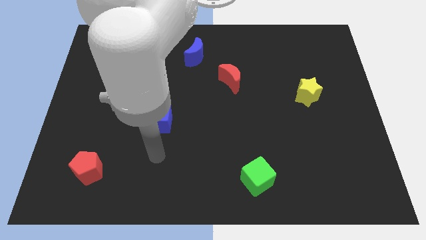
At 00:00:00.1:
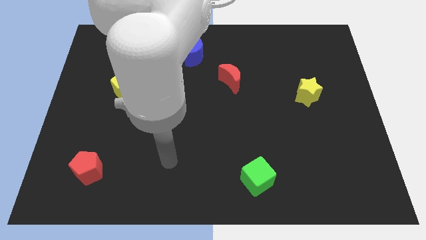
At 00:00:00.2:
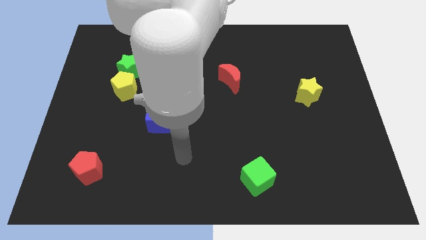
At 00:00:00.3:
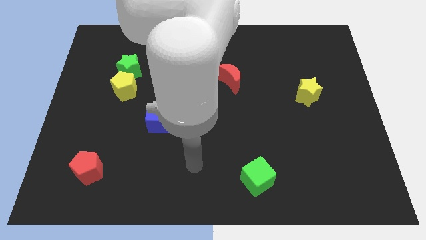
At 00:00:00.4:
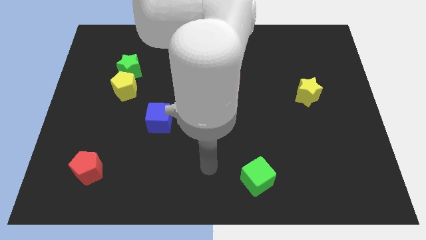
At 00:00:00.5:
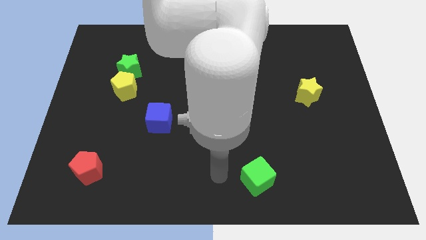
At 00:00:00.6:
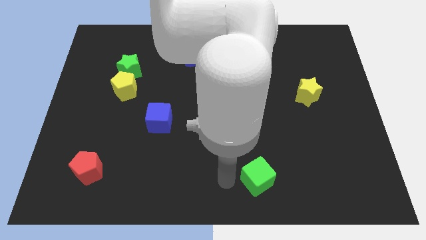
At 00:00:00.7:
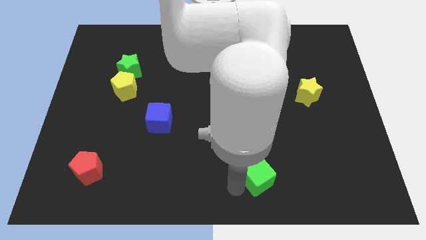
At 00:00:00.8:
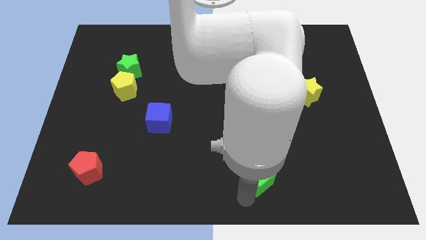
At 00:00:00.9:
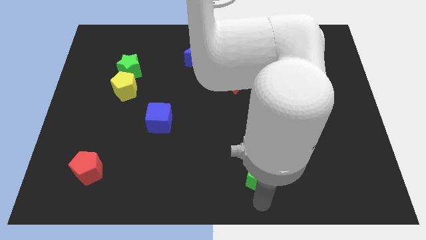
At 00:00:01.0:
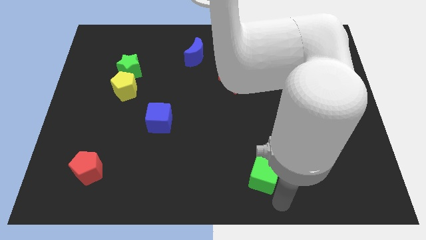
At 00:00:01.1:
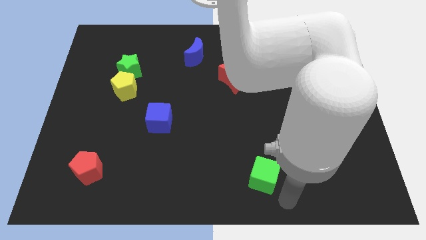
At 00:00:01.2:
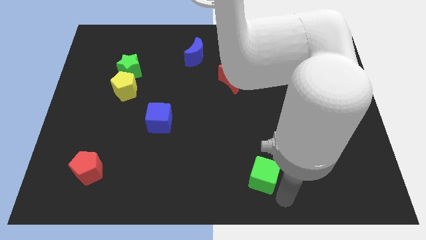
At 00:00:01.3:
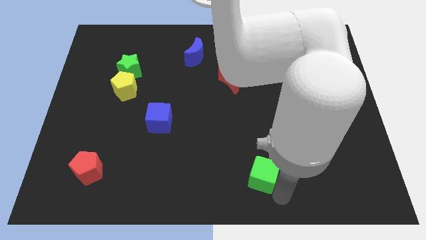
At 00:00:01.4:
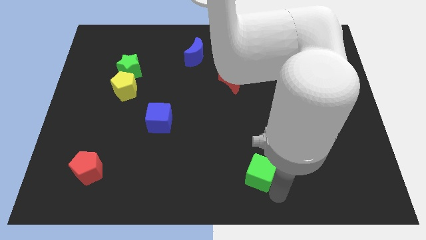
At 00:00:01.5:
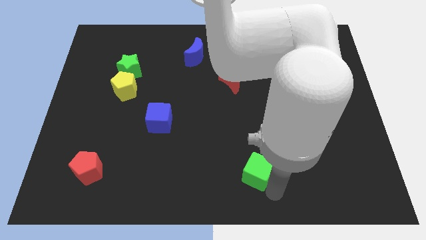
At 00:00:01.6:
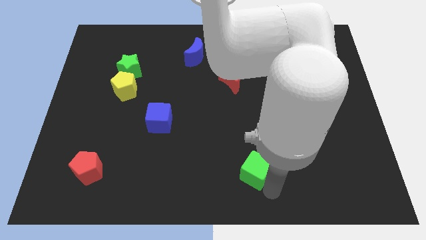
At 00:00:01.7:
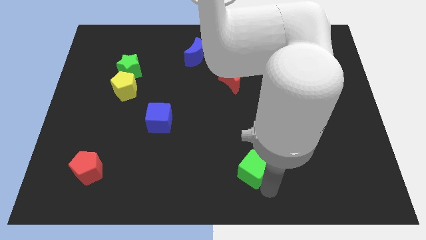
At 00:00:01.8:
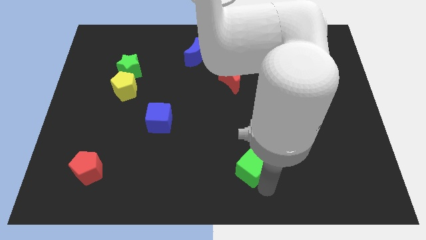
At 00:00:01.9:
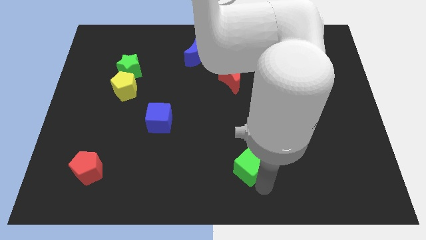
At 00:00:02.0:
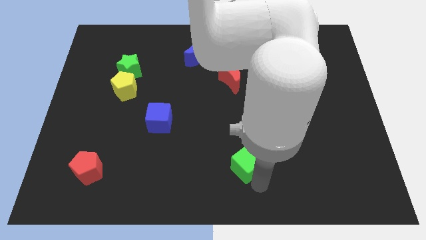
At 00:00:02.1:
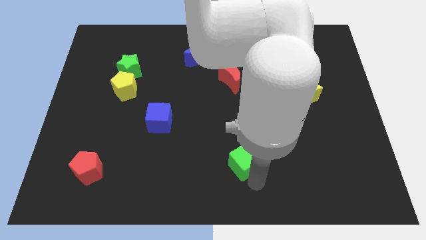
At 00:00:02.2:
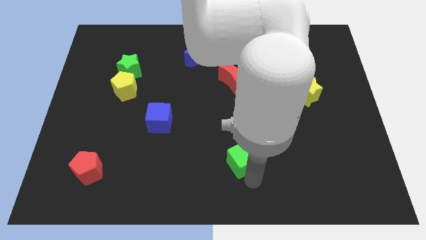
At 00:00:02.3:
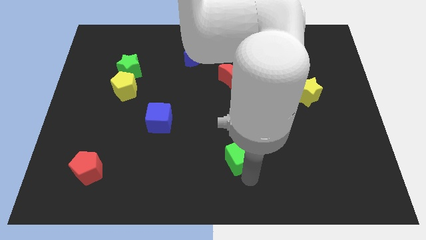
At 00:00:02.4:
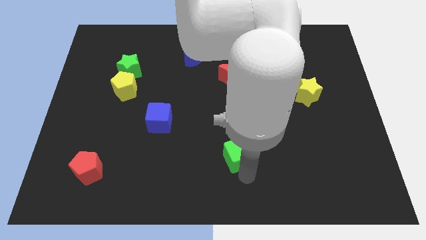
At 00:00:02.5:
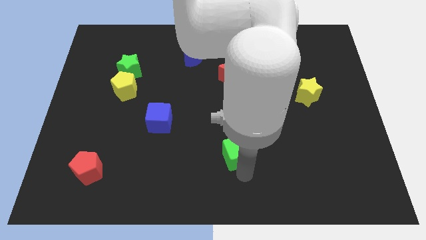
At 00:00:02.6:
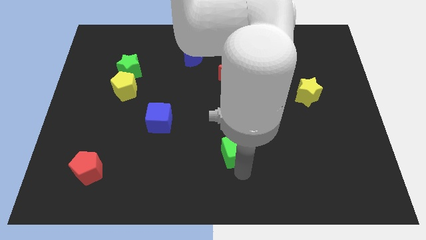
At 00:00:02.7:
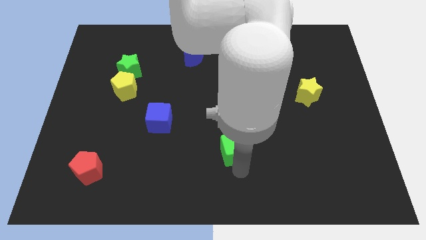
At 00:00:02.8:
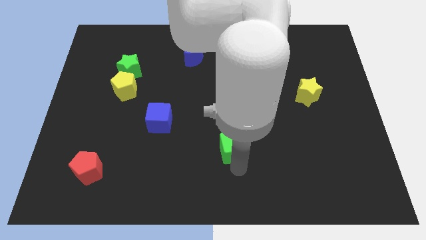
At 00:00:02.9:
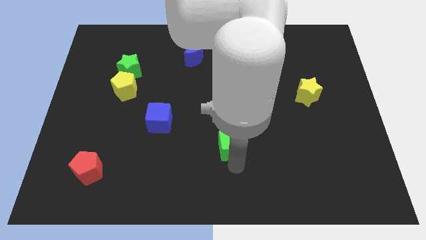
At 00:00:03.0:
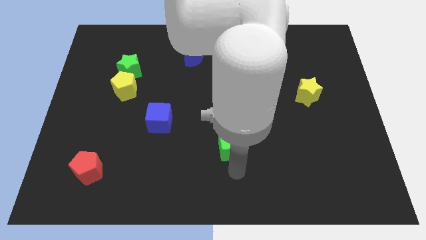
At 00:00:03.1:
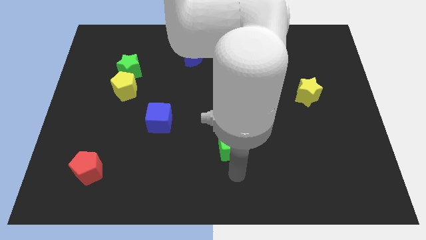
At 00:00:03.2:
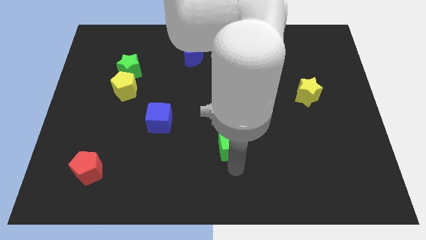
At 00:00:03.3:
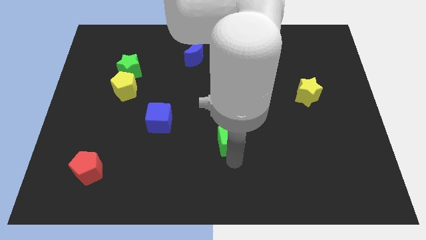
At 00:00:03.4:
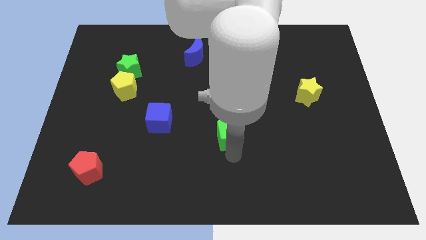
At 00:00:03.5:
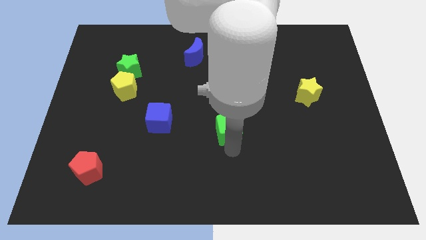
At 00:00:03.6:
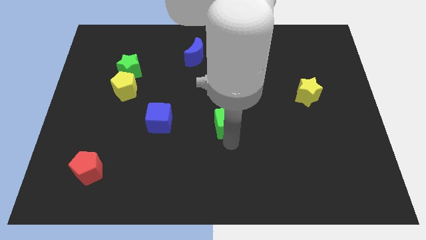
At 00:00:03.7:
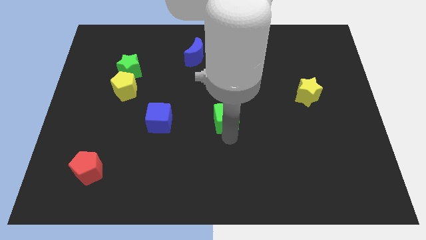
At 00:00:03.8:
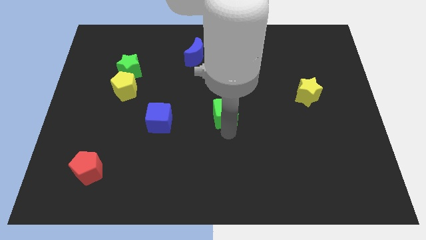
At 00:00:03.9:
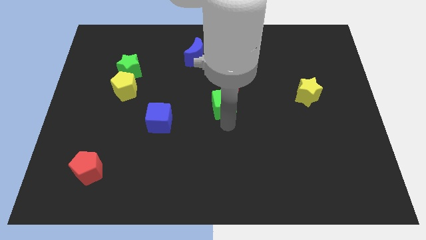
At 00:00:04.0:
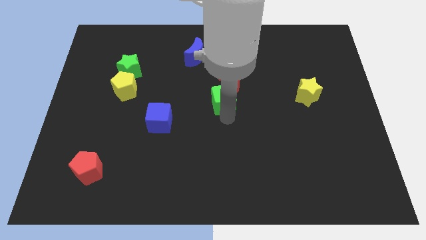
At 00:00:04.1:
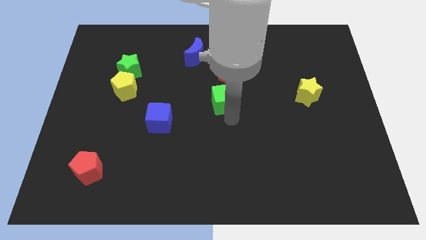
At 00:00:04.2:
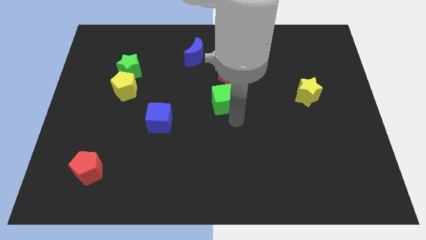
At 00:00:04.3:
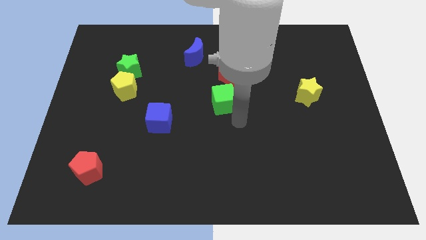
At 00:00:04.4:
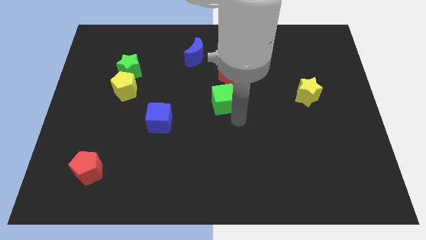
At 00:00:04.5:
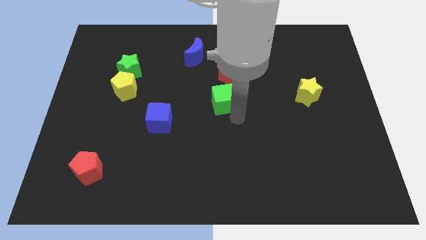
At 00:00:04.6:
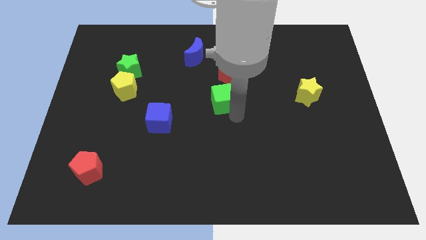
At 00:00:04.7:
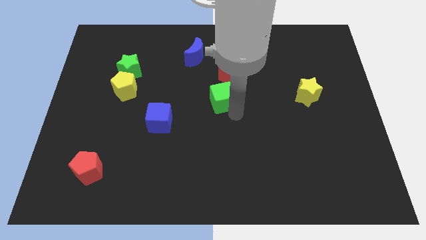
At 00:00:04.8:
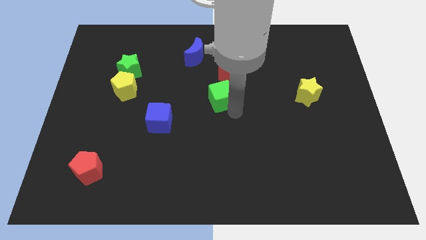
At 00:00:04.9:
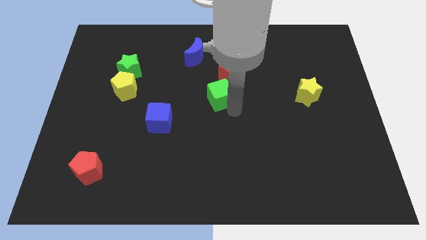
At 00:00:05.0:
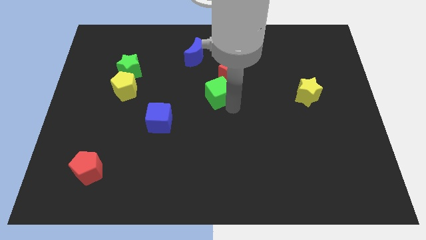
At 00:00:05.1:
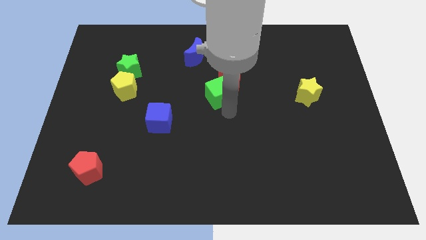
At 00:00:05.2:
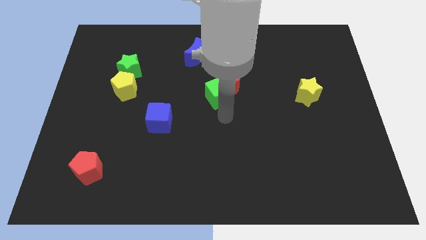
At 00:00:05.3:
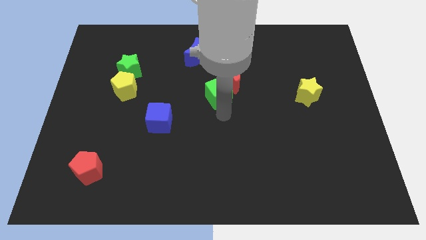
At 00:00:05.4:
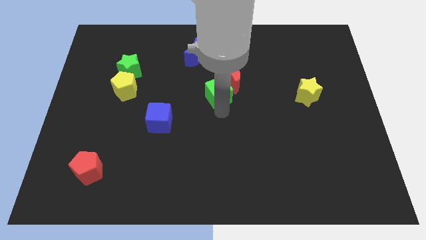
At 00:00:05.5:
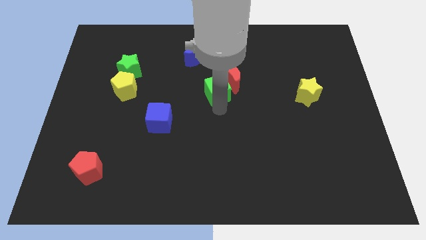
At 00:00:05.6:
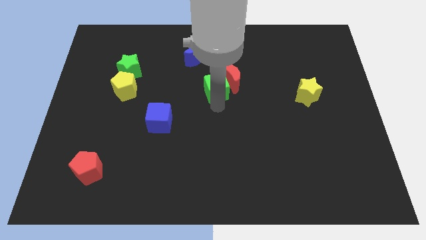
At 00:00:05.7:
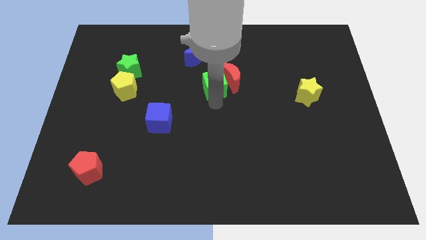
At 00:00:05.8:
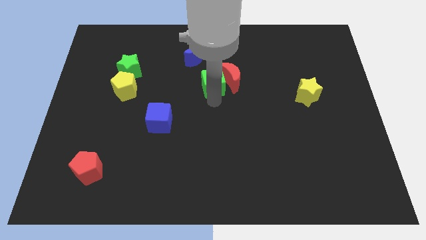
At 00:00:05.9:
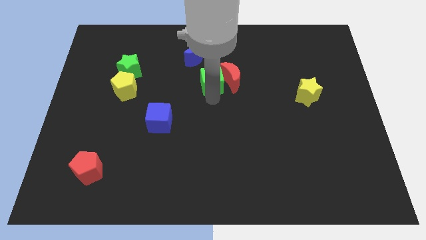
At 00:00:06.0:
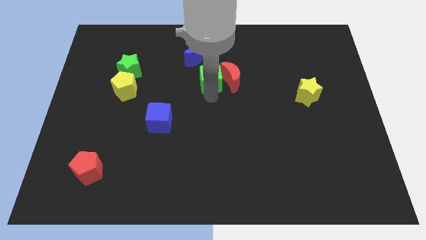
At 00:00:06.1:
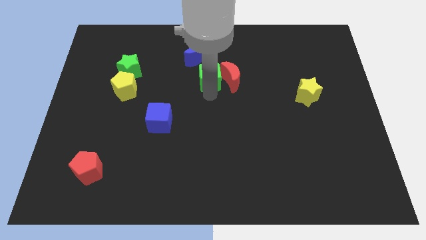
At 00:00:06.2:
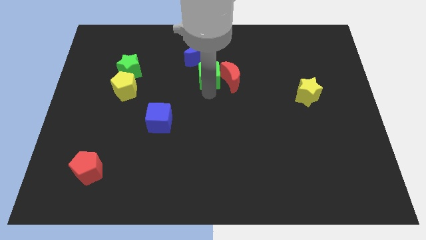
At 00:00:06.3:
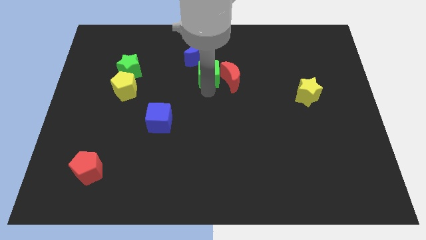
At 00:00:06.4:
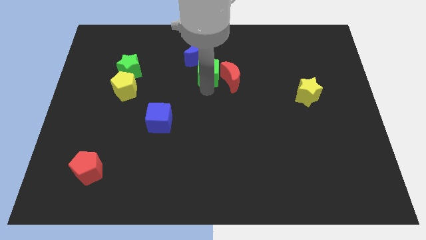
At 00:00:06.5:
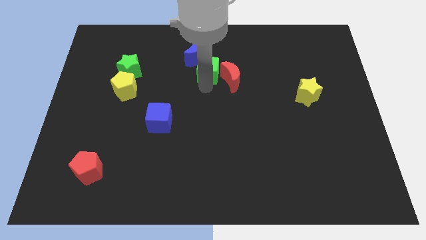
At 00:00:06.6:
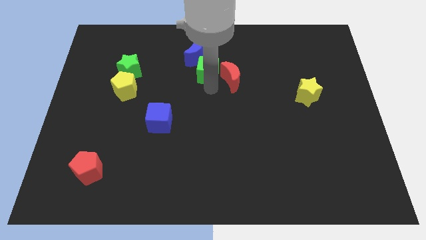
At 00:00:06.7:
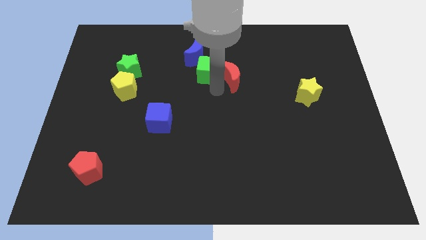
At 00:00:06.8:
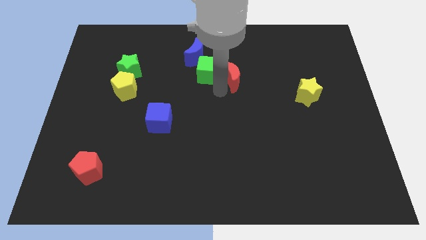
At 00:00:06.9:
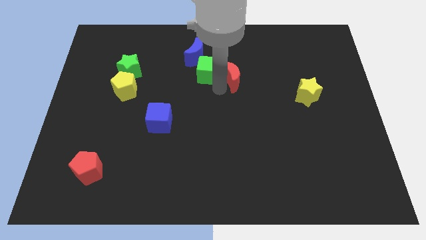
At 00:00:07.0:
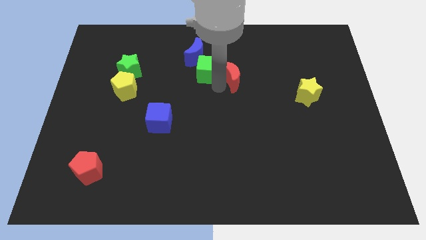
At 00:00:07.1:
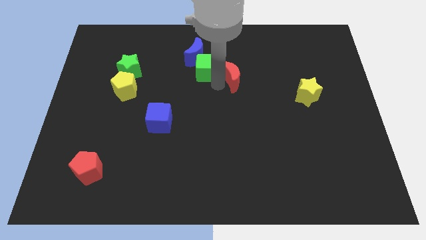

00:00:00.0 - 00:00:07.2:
slide the green cube to the blue moon
